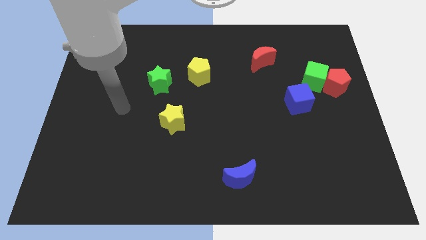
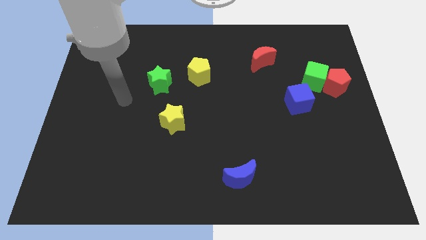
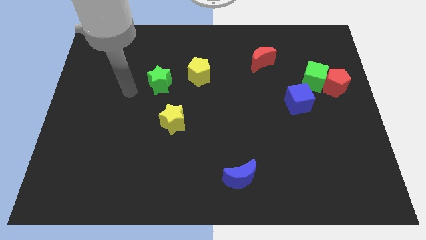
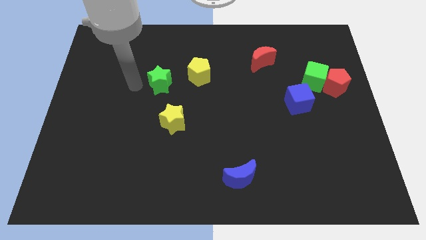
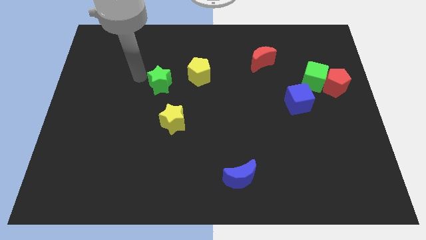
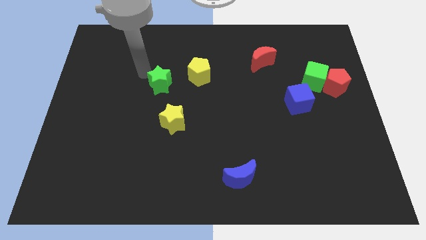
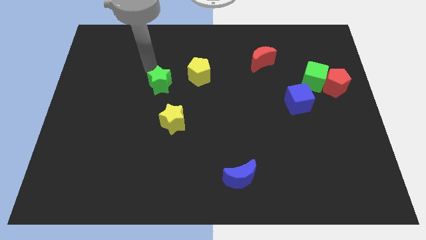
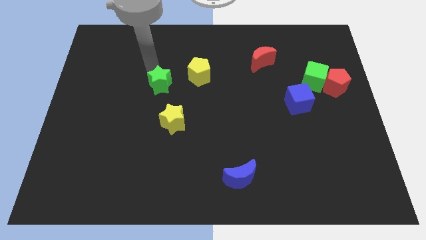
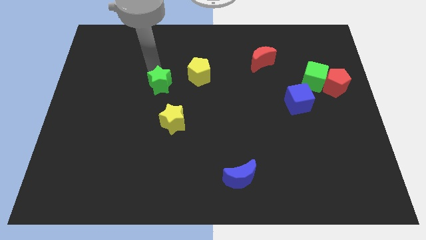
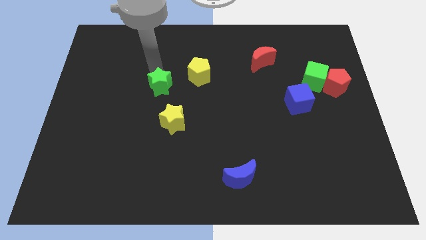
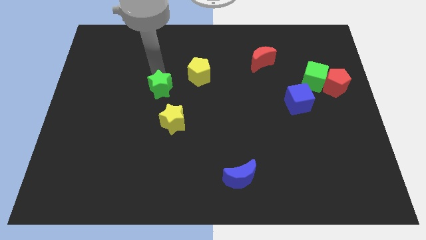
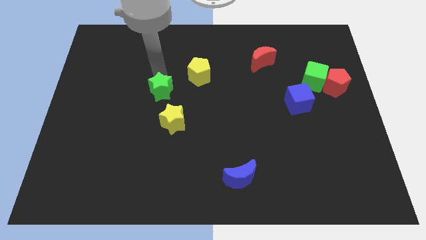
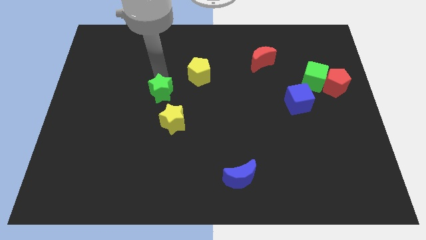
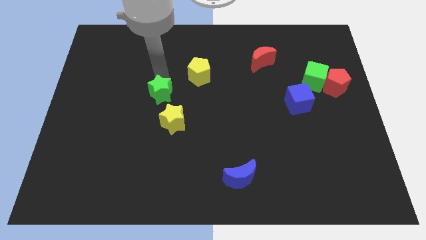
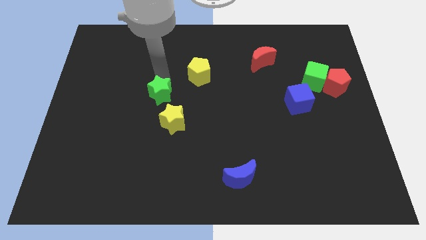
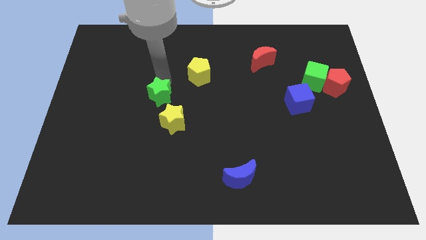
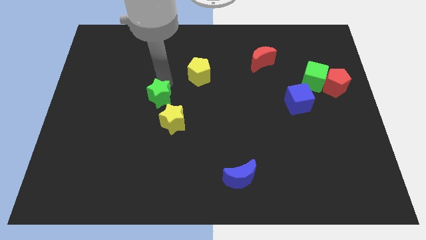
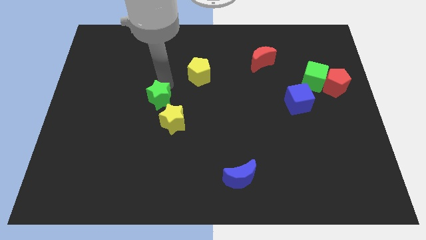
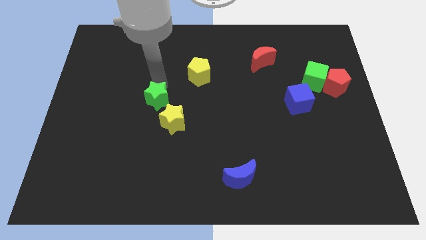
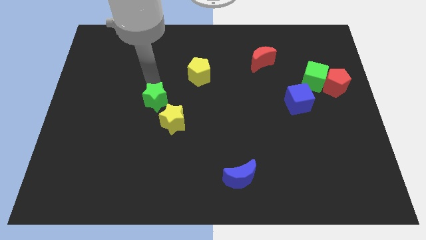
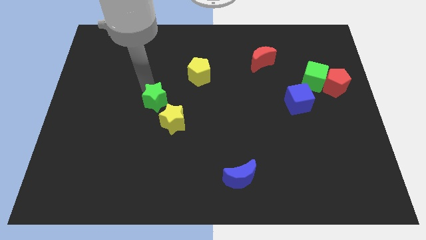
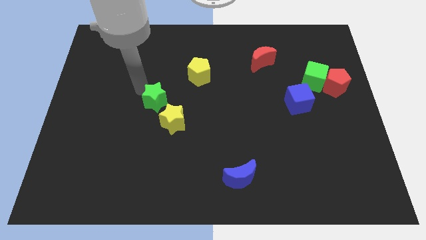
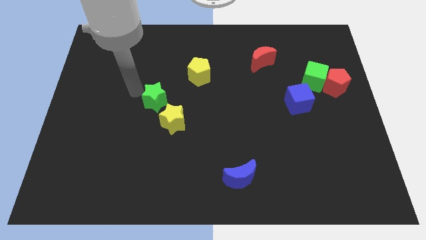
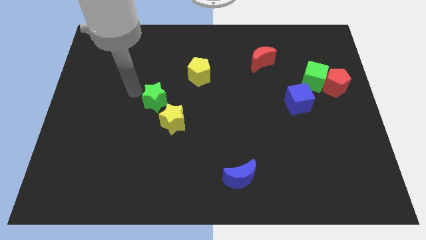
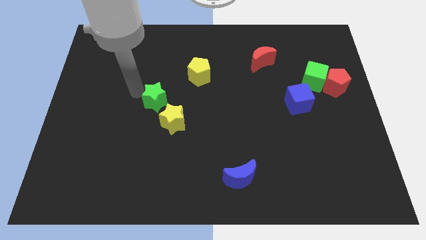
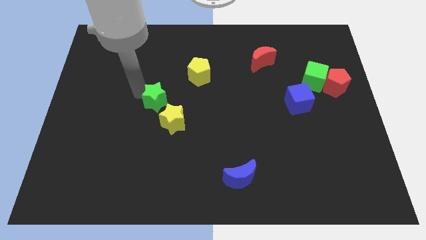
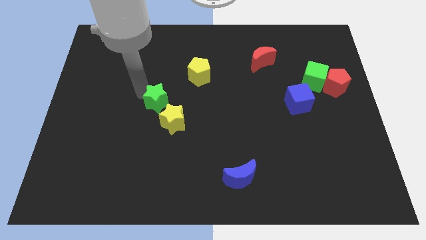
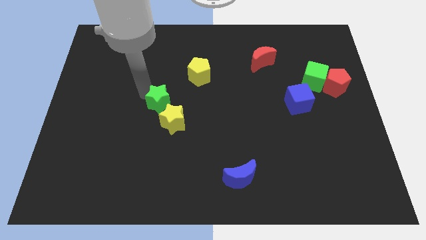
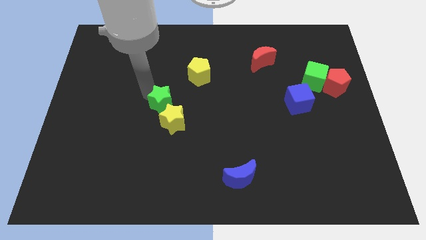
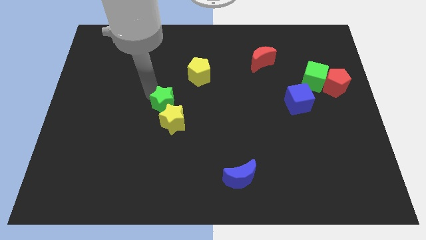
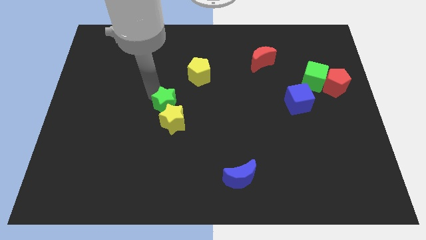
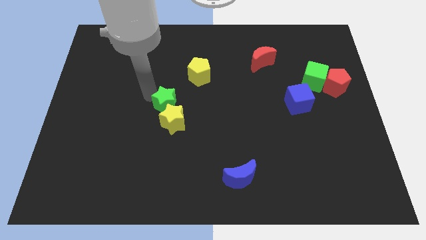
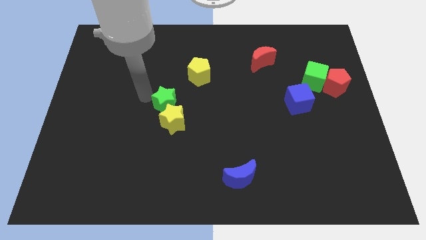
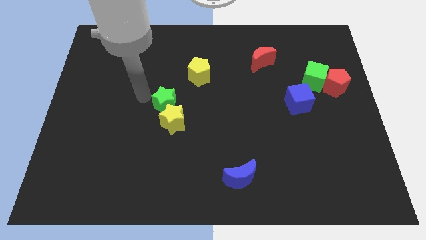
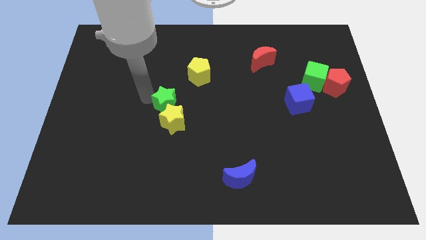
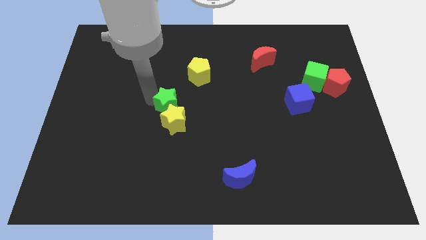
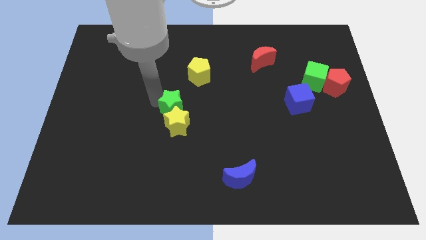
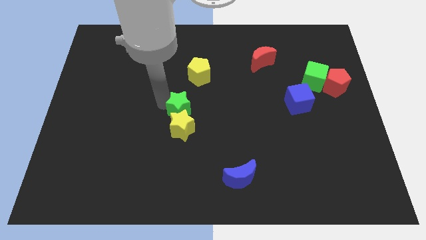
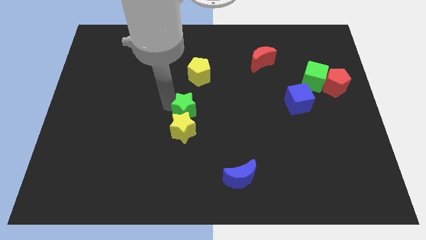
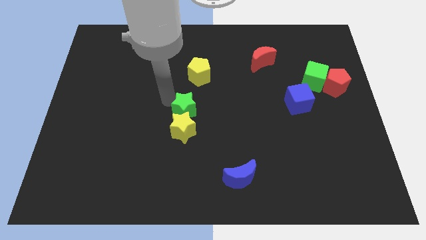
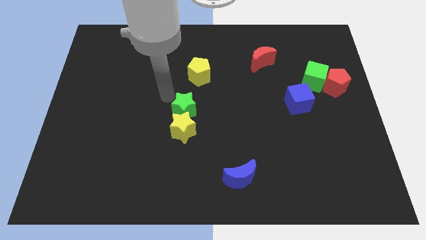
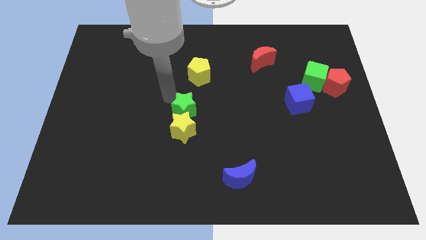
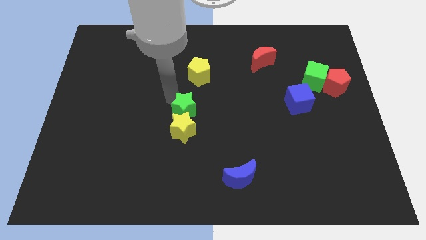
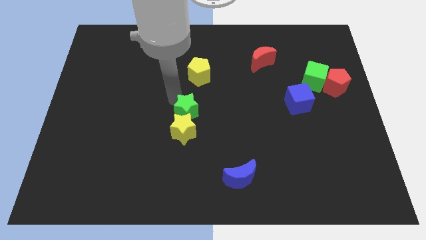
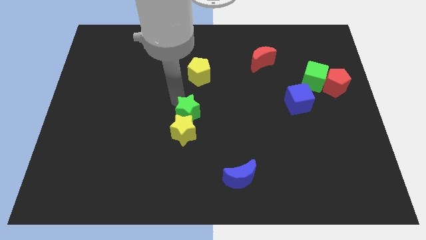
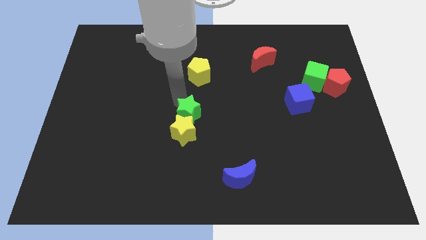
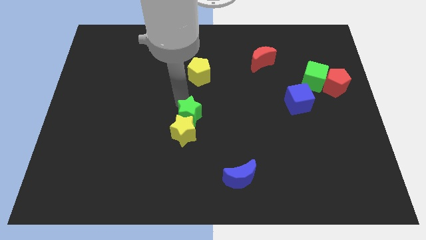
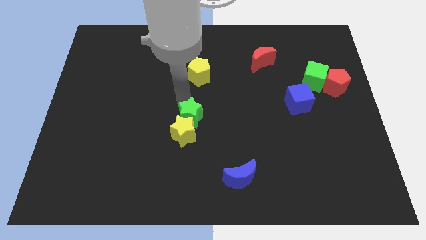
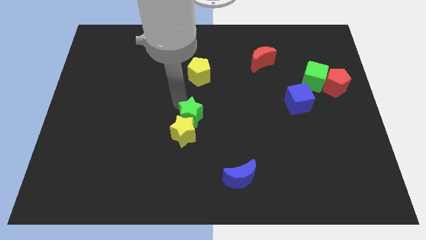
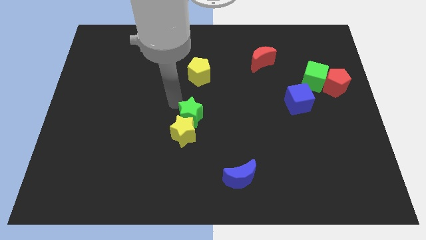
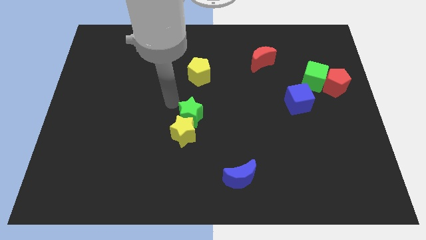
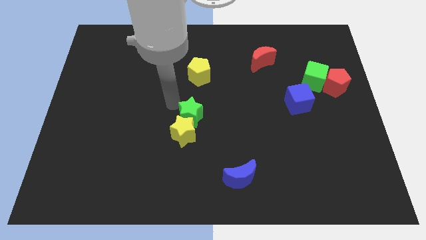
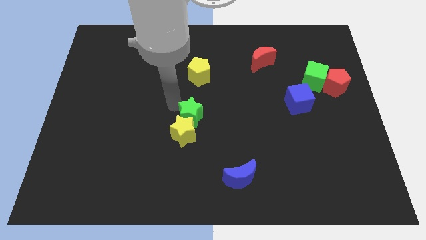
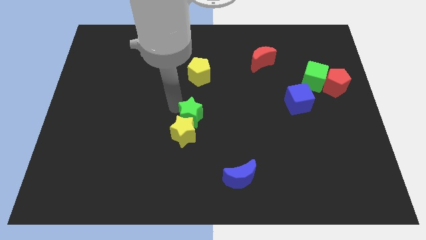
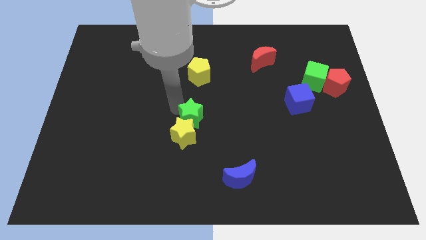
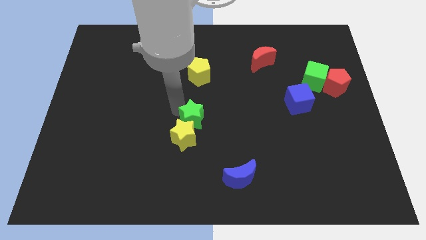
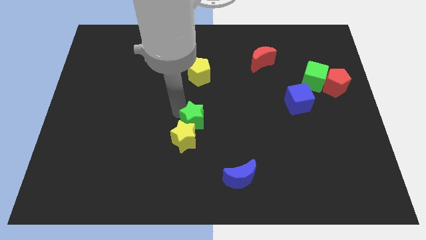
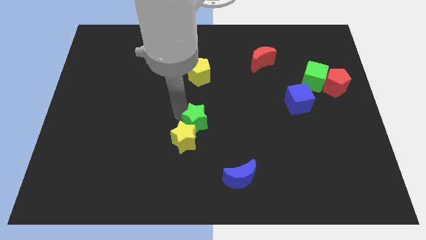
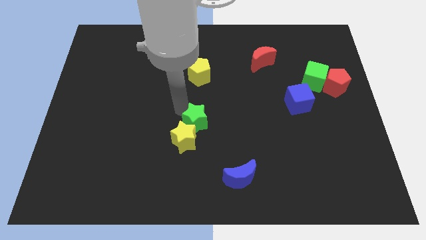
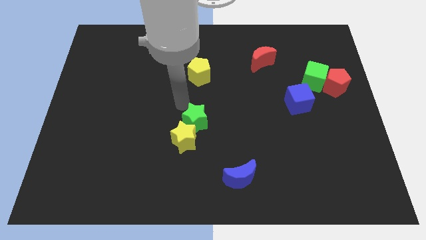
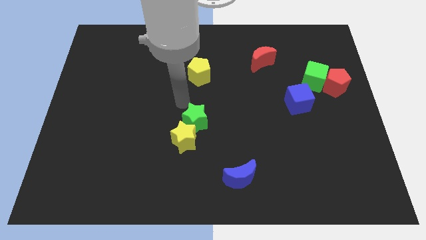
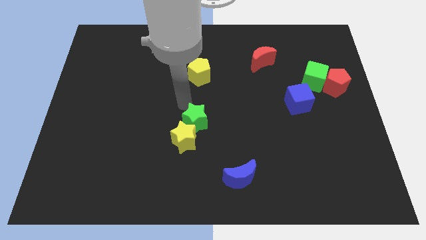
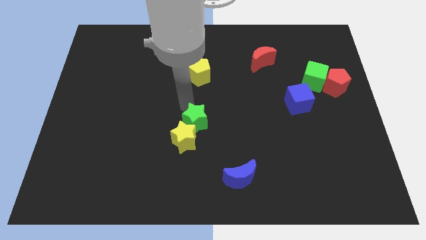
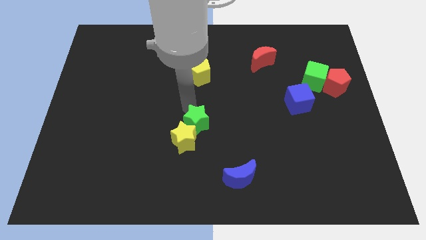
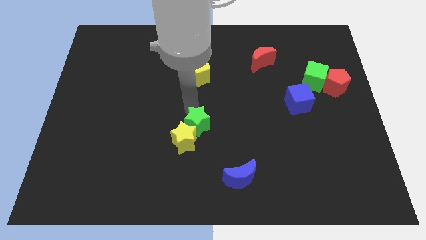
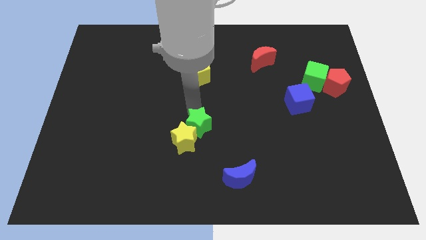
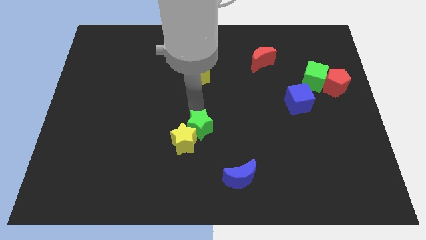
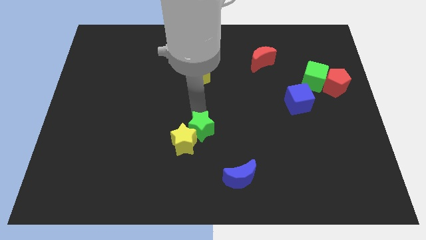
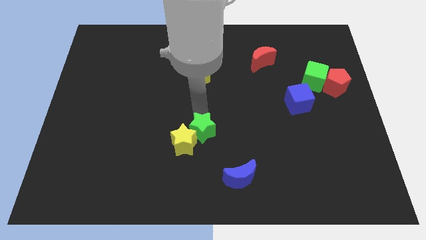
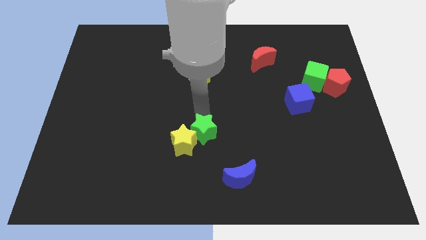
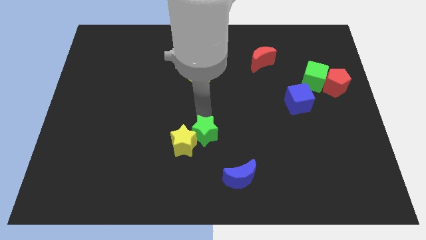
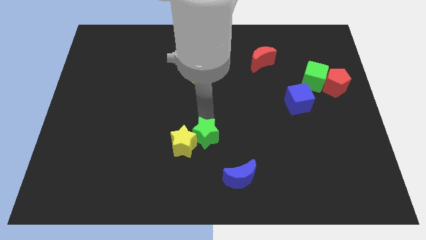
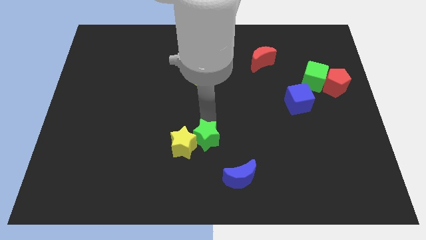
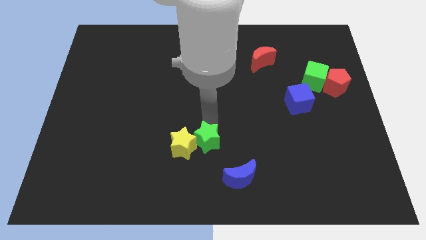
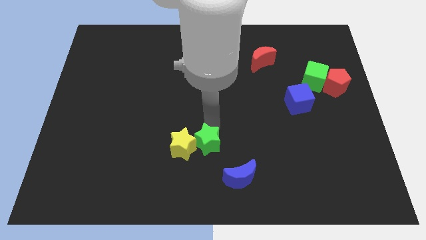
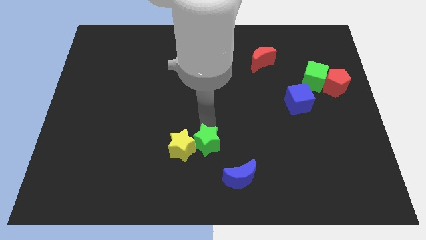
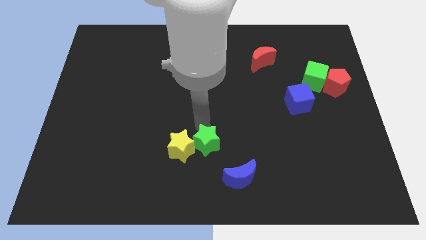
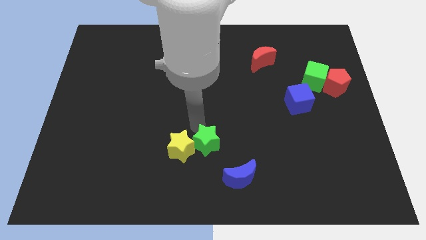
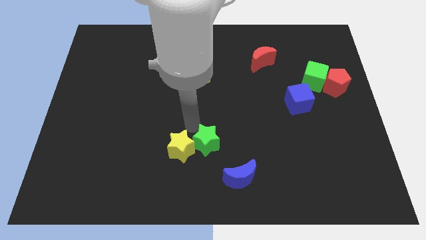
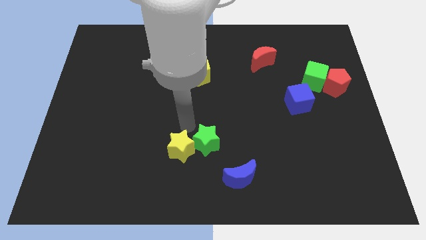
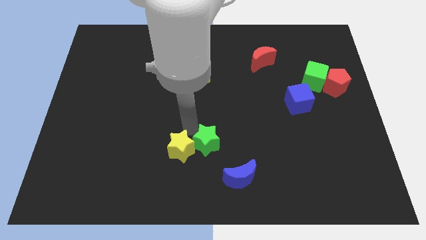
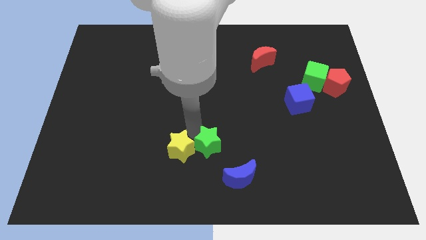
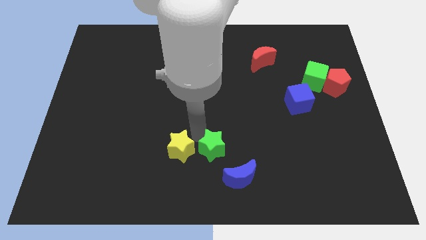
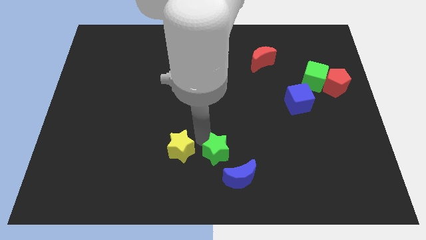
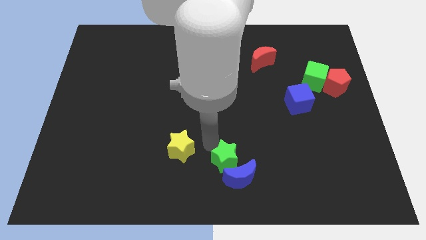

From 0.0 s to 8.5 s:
slide the green star next to the blue moon
